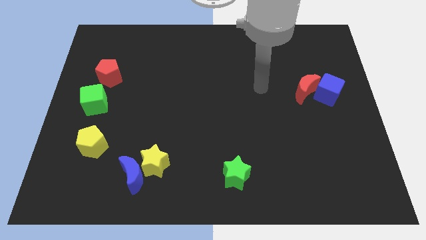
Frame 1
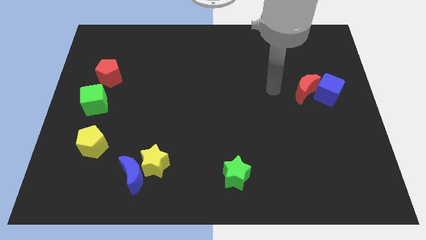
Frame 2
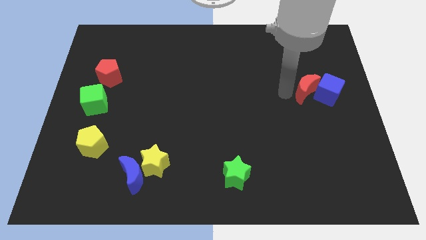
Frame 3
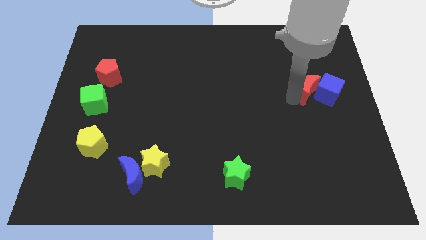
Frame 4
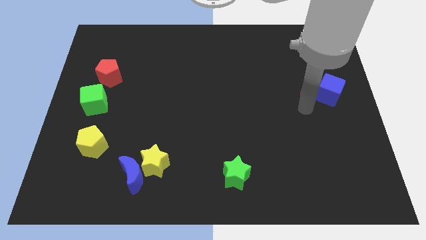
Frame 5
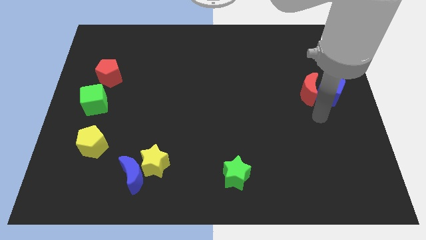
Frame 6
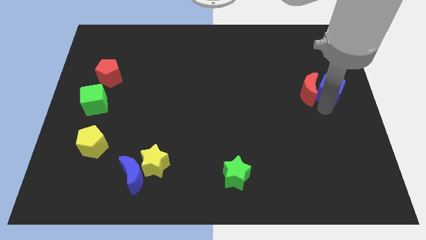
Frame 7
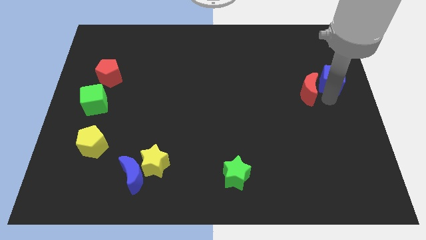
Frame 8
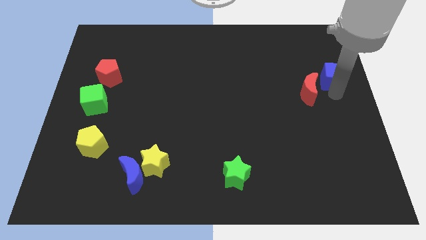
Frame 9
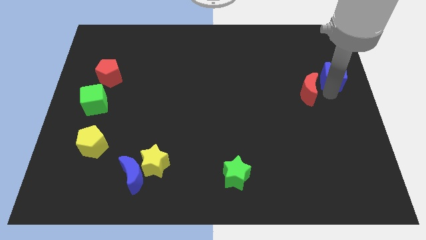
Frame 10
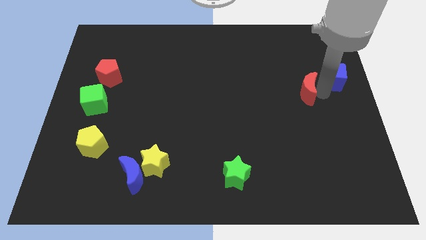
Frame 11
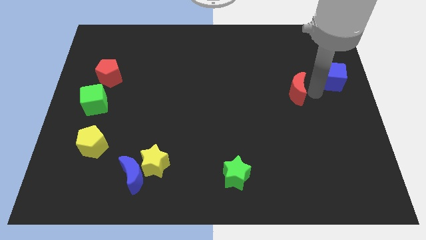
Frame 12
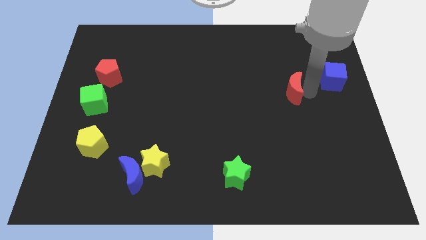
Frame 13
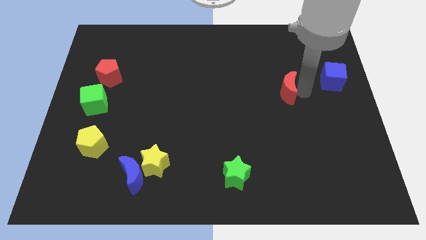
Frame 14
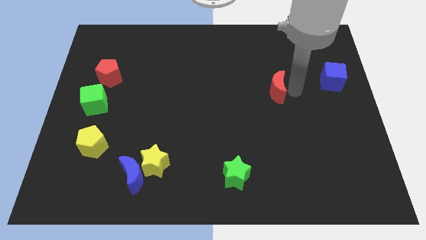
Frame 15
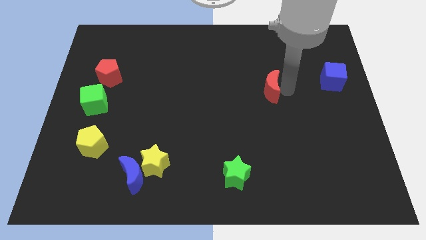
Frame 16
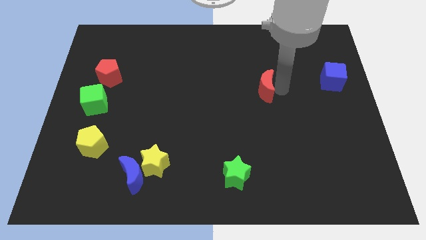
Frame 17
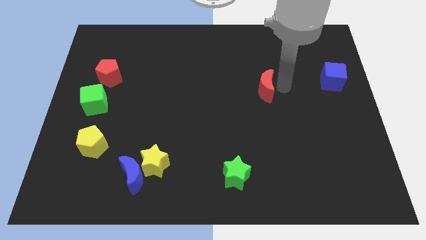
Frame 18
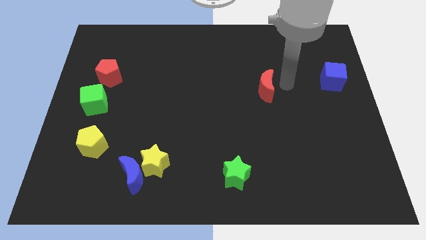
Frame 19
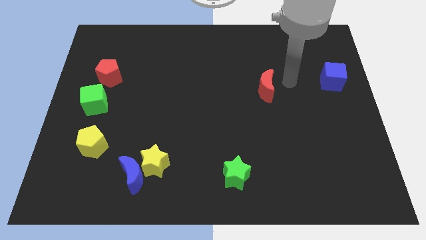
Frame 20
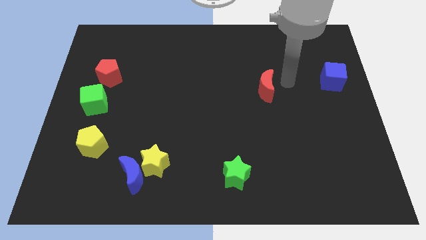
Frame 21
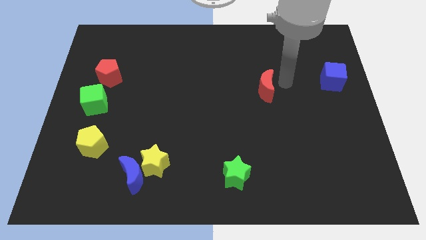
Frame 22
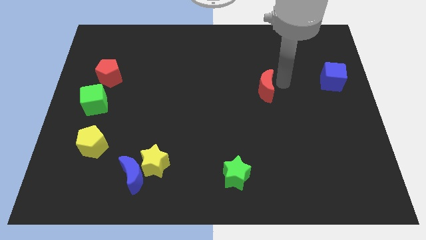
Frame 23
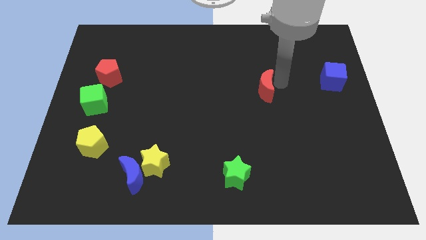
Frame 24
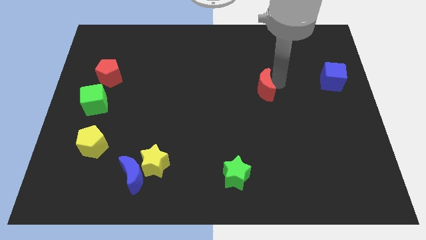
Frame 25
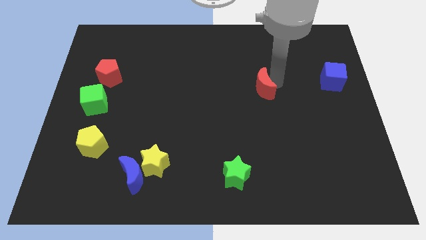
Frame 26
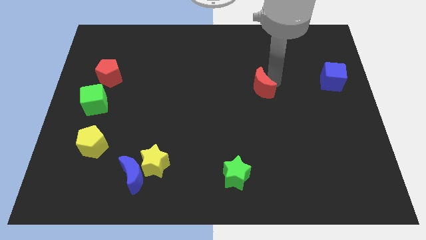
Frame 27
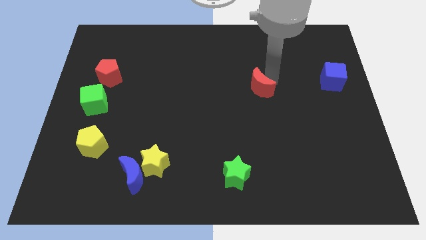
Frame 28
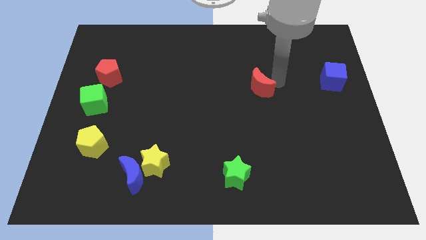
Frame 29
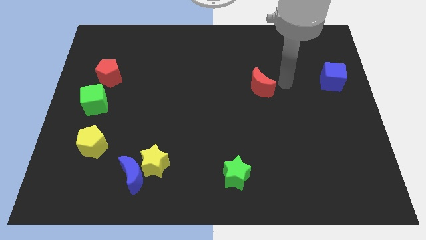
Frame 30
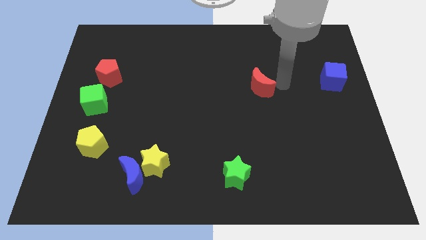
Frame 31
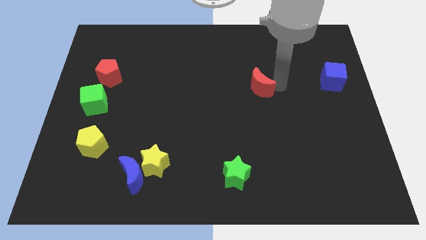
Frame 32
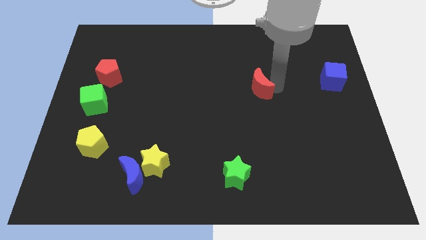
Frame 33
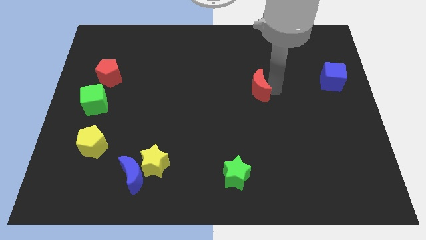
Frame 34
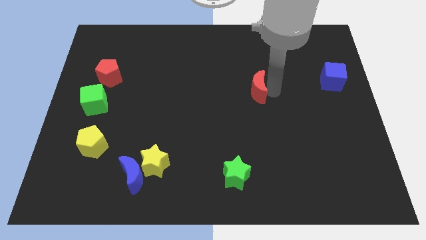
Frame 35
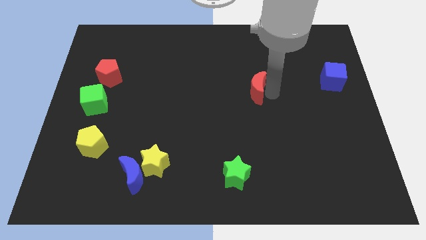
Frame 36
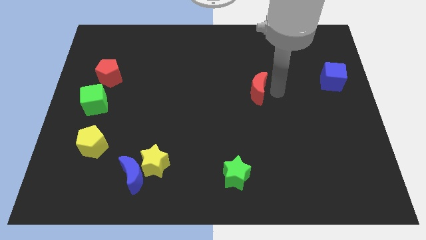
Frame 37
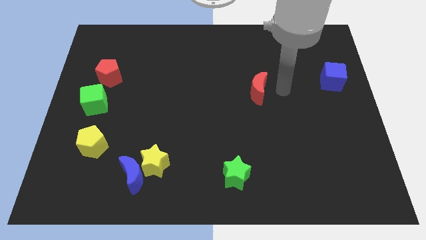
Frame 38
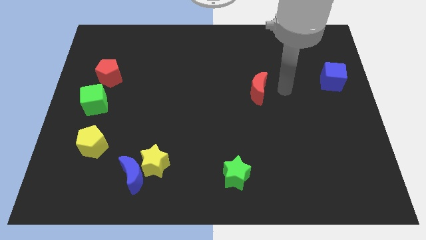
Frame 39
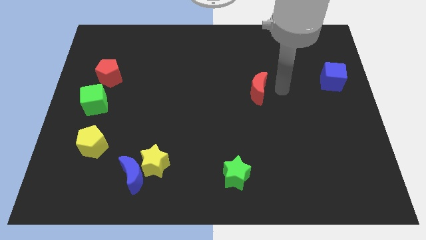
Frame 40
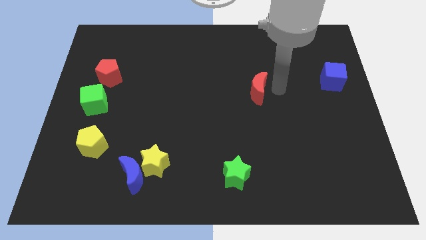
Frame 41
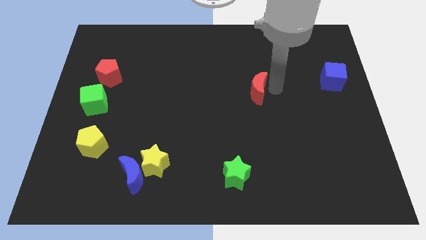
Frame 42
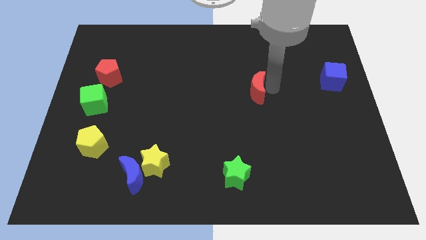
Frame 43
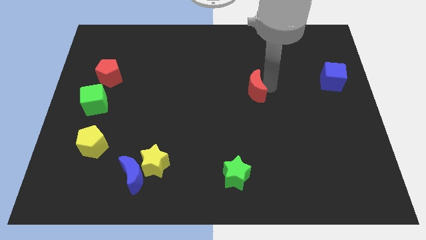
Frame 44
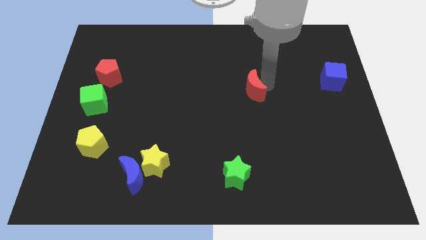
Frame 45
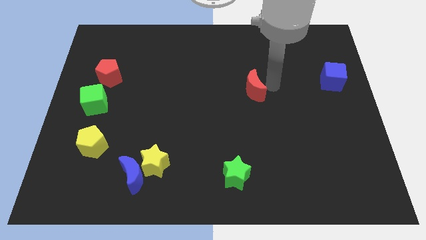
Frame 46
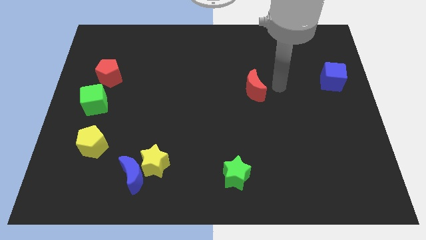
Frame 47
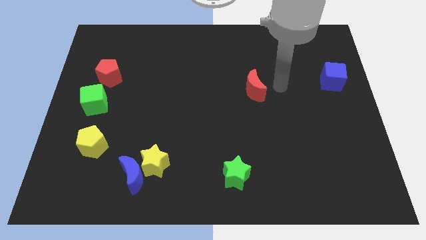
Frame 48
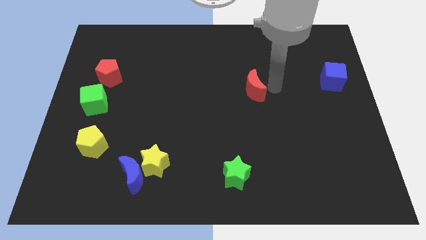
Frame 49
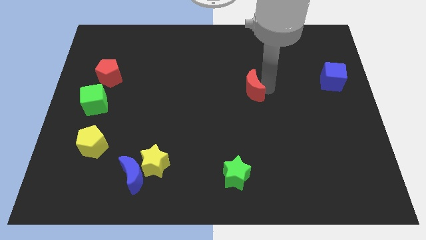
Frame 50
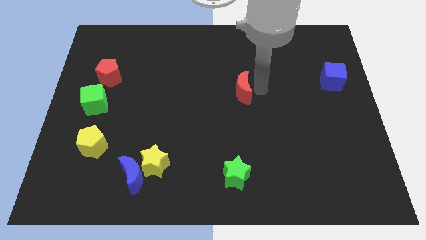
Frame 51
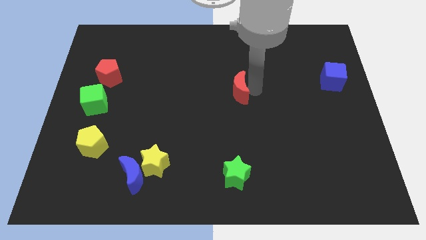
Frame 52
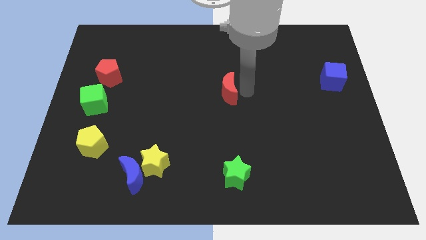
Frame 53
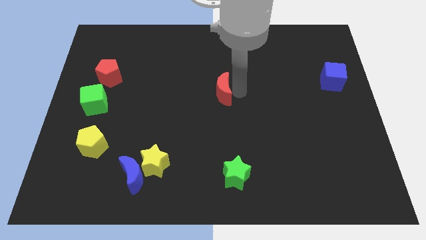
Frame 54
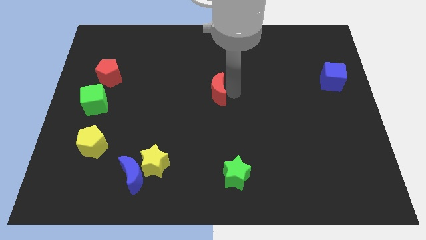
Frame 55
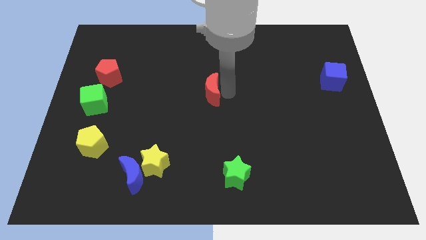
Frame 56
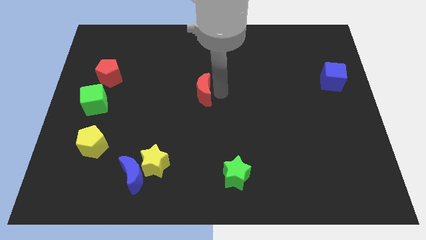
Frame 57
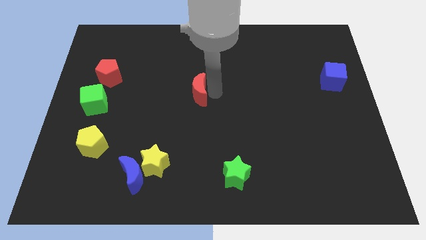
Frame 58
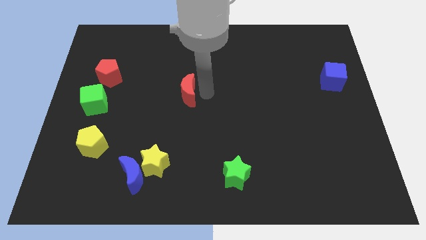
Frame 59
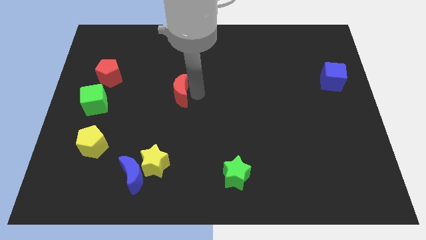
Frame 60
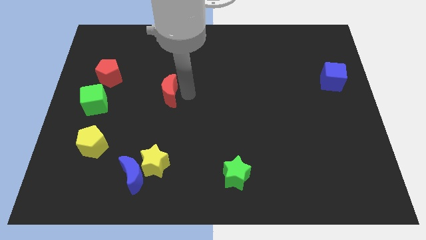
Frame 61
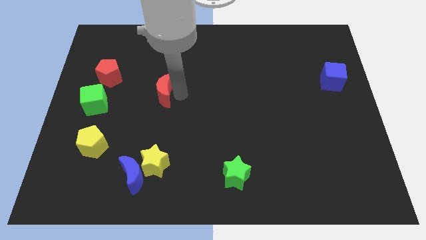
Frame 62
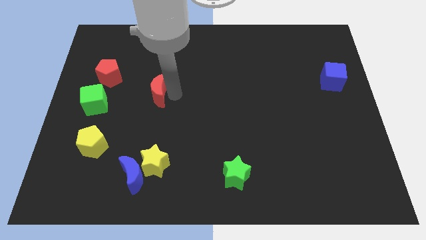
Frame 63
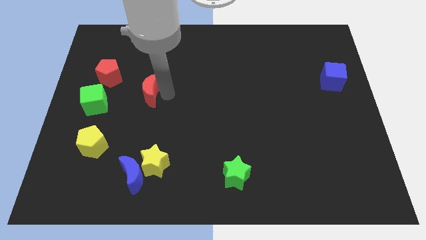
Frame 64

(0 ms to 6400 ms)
put the red moon diagonally down and to the right of the red pentagon
